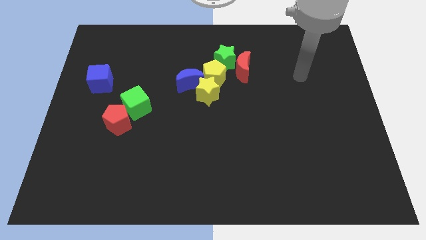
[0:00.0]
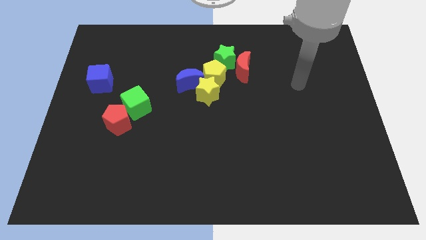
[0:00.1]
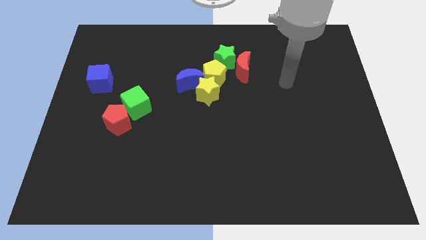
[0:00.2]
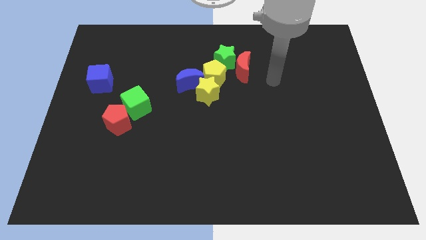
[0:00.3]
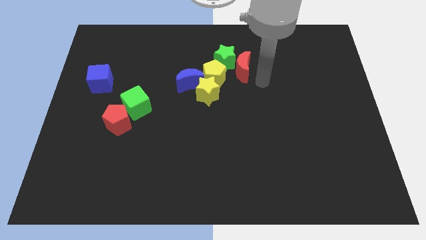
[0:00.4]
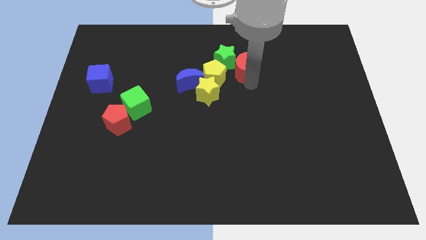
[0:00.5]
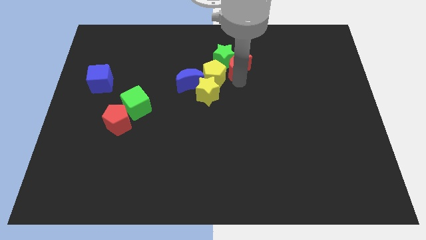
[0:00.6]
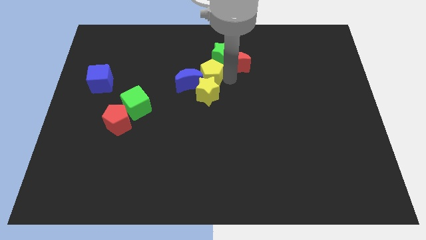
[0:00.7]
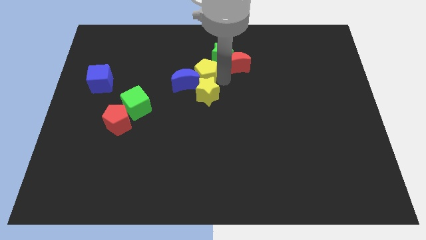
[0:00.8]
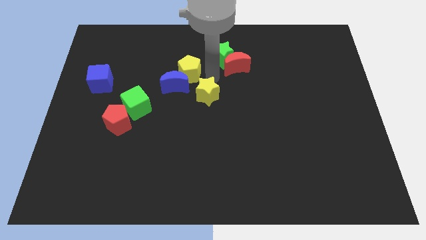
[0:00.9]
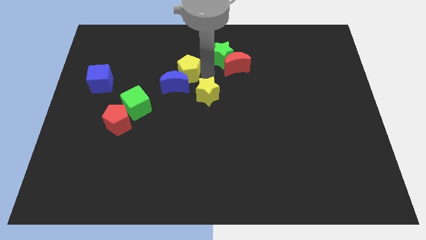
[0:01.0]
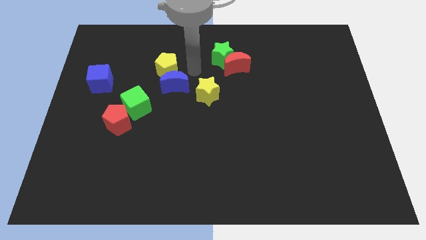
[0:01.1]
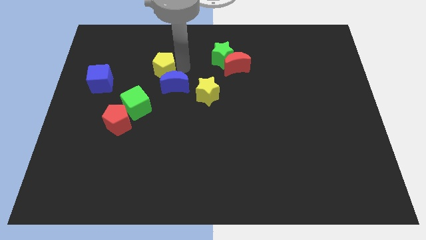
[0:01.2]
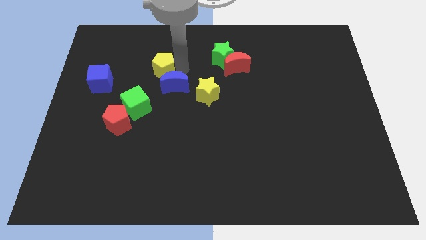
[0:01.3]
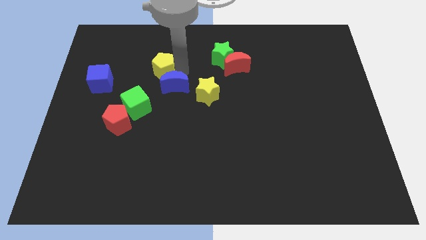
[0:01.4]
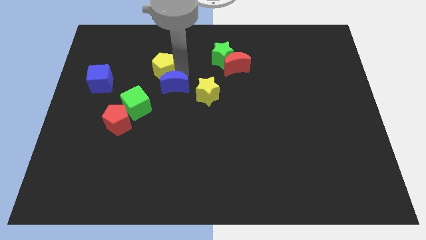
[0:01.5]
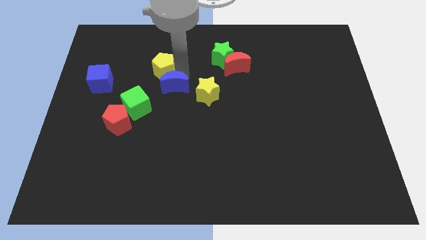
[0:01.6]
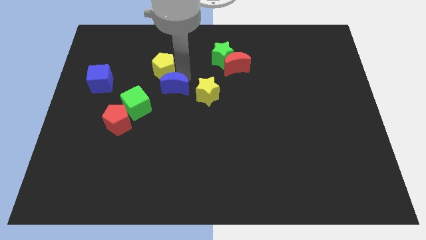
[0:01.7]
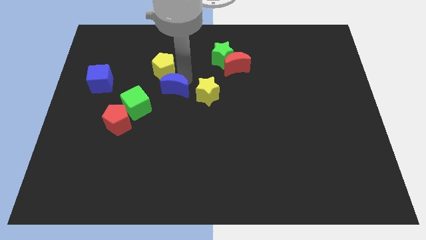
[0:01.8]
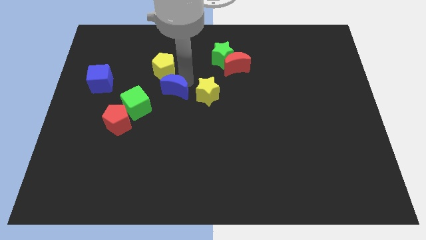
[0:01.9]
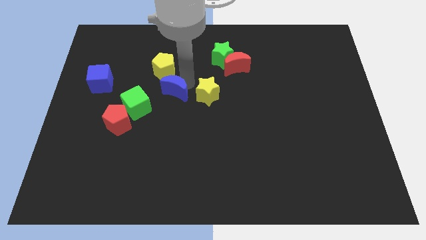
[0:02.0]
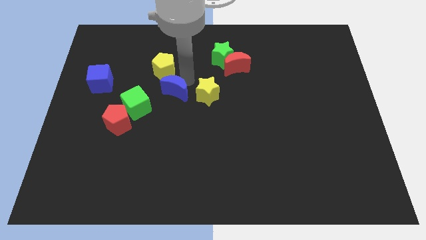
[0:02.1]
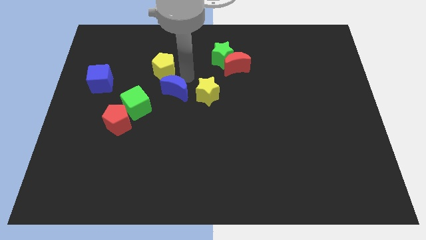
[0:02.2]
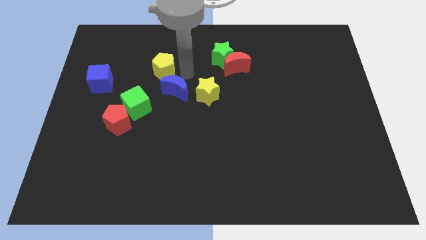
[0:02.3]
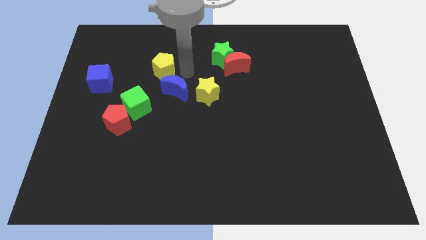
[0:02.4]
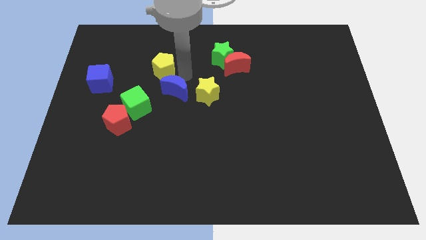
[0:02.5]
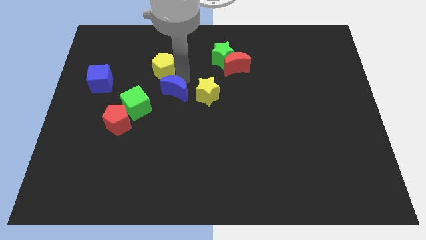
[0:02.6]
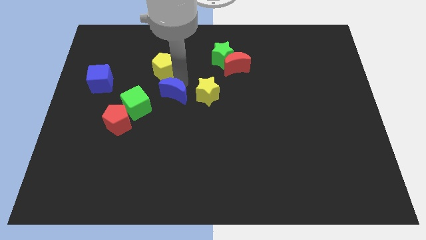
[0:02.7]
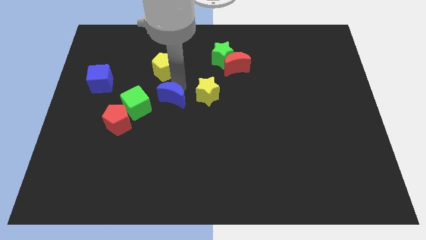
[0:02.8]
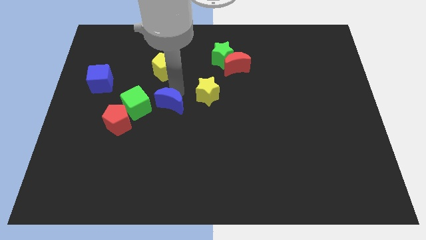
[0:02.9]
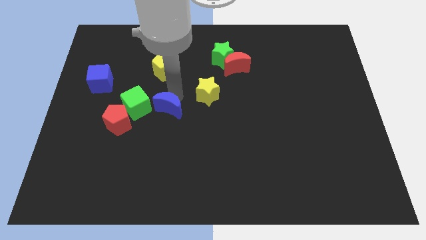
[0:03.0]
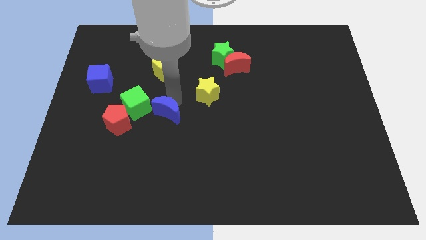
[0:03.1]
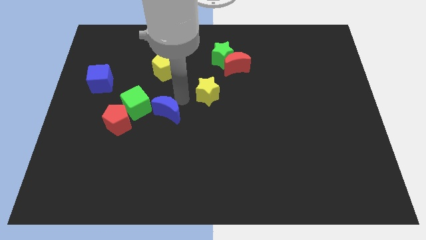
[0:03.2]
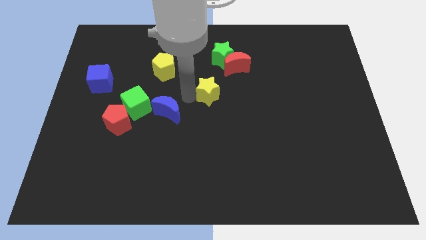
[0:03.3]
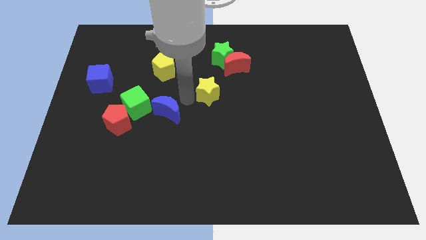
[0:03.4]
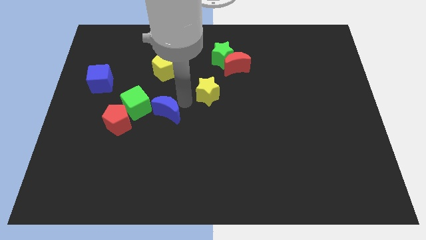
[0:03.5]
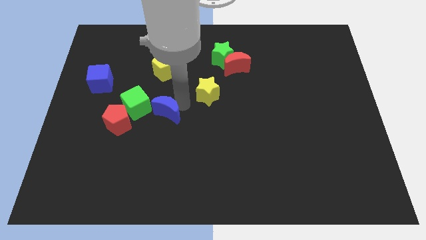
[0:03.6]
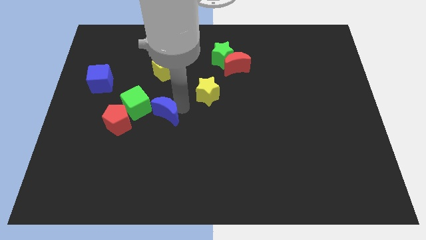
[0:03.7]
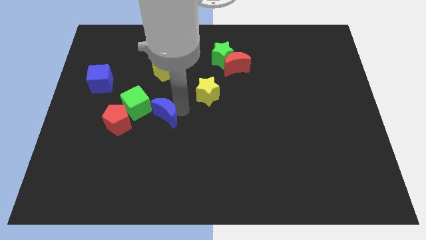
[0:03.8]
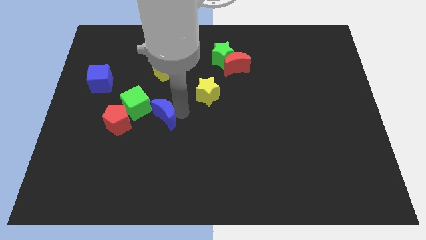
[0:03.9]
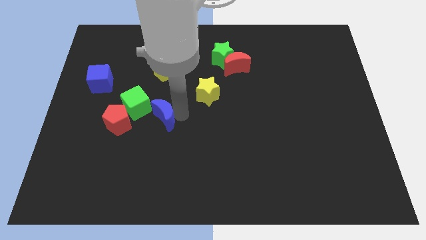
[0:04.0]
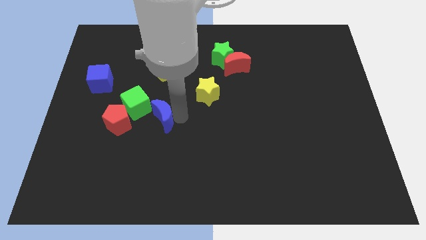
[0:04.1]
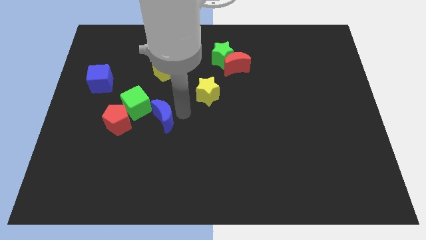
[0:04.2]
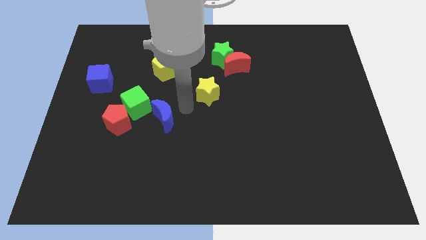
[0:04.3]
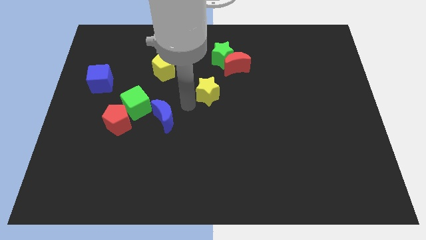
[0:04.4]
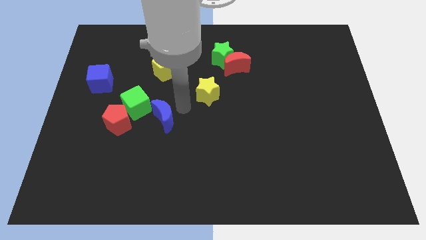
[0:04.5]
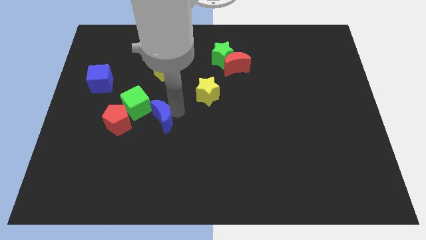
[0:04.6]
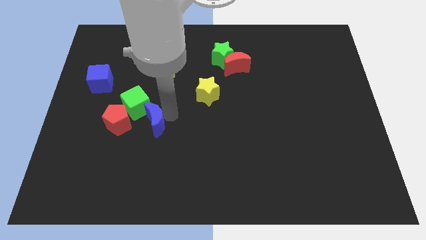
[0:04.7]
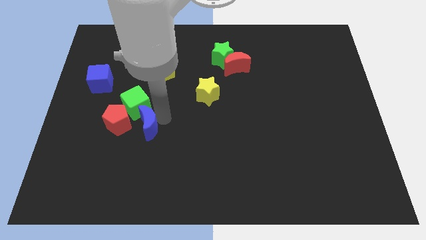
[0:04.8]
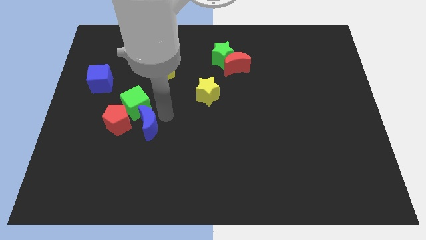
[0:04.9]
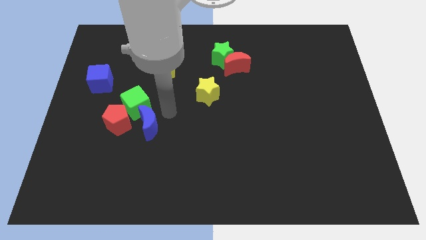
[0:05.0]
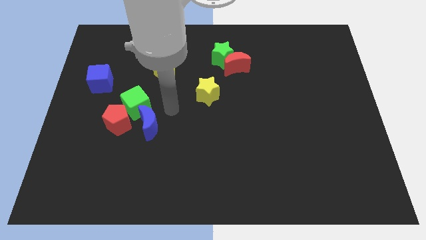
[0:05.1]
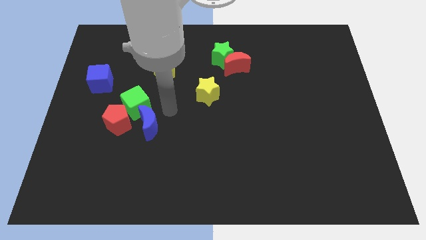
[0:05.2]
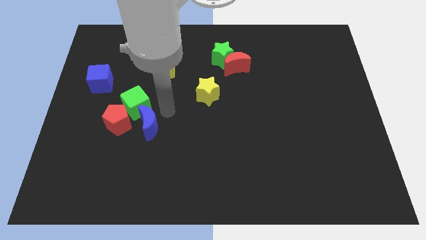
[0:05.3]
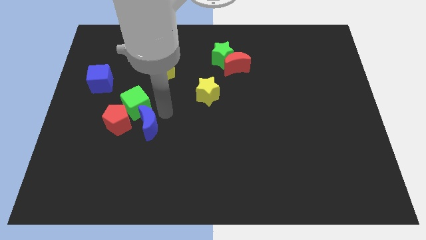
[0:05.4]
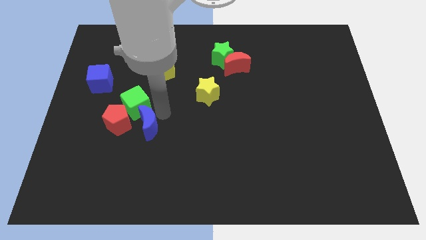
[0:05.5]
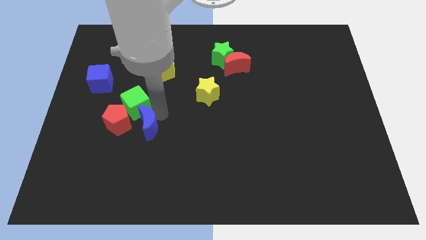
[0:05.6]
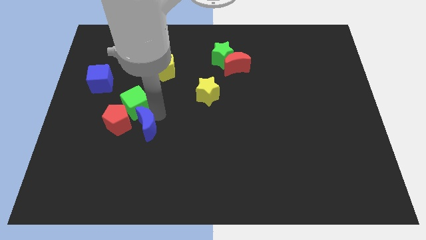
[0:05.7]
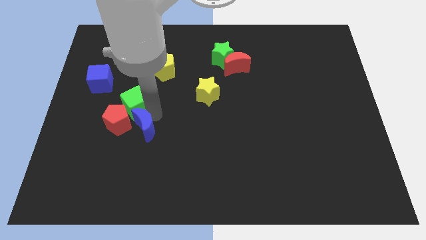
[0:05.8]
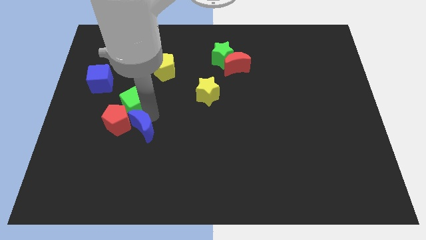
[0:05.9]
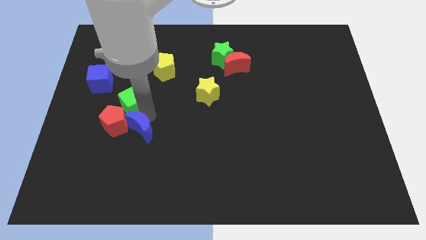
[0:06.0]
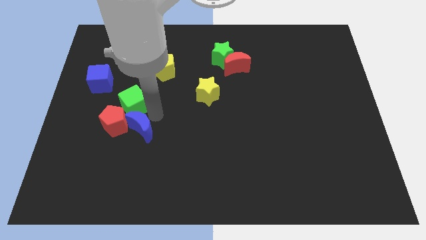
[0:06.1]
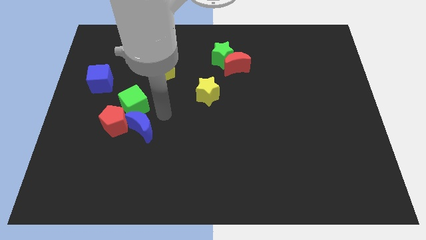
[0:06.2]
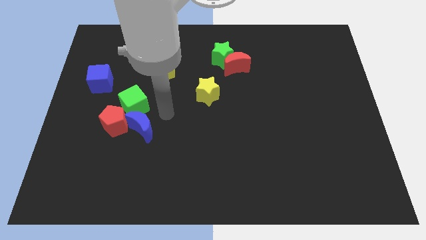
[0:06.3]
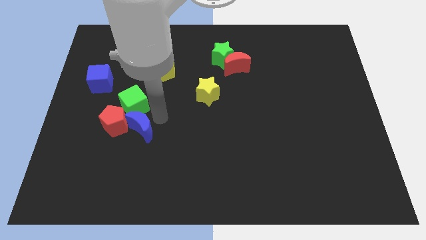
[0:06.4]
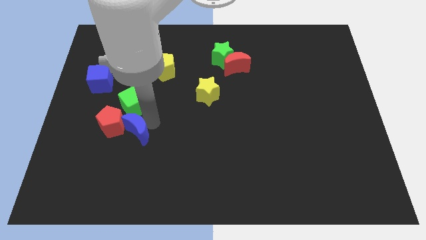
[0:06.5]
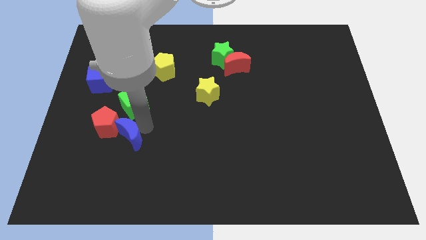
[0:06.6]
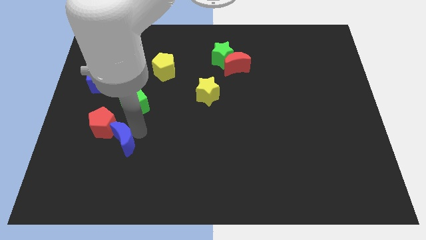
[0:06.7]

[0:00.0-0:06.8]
push the blue moon down and left

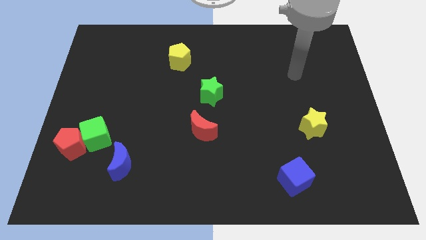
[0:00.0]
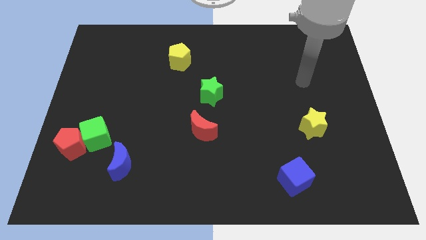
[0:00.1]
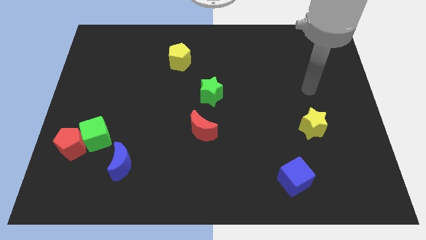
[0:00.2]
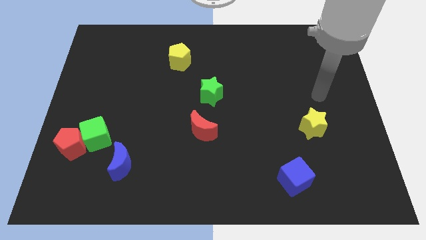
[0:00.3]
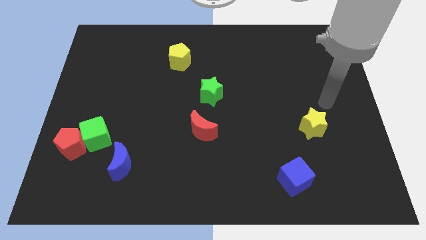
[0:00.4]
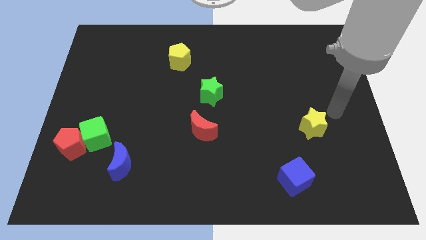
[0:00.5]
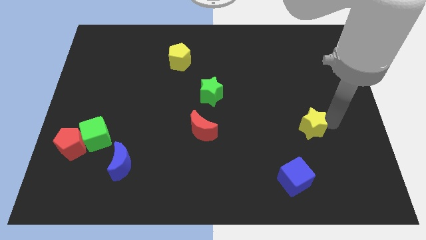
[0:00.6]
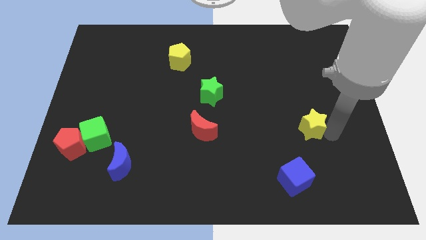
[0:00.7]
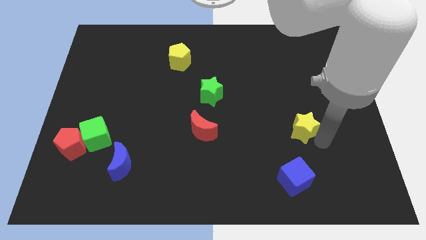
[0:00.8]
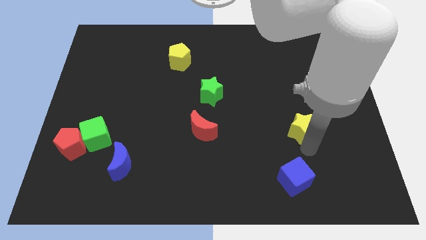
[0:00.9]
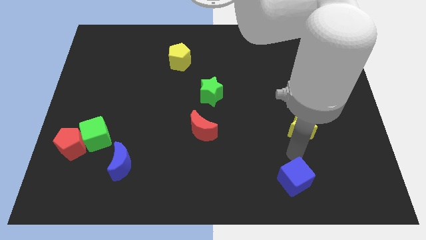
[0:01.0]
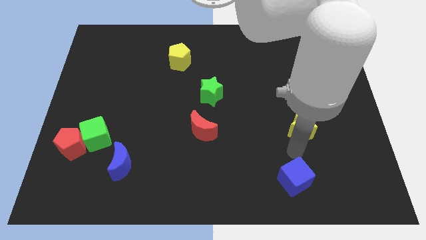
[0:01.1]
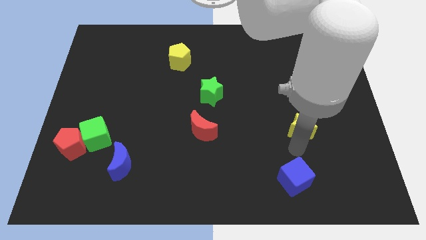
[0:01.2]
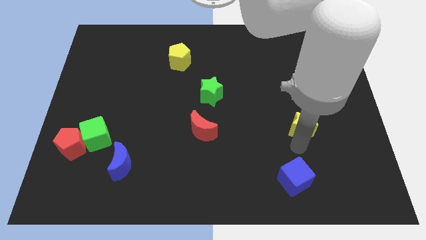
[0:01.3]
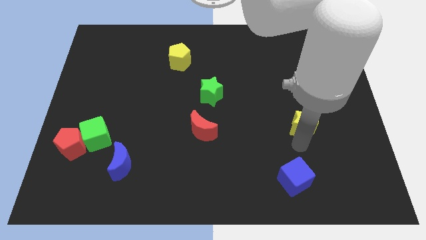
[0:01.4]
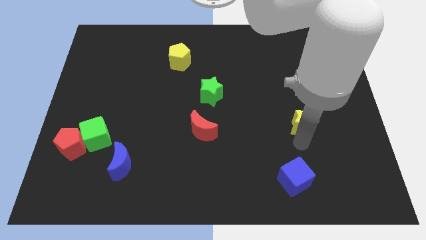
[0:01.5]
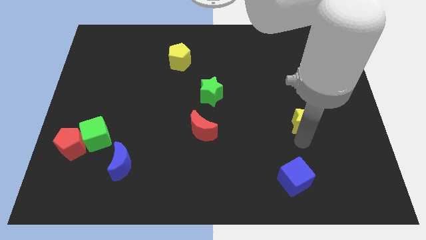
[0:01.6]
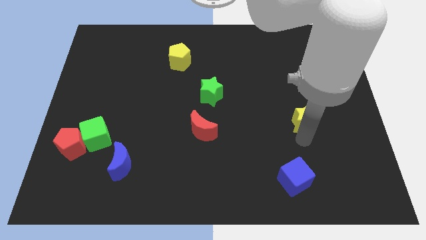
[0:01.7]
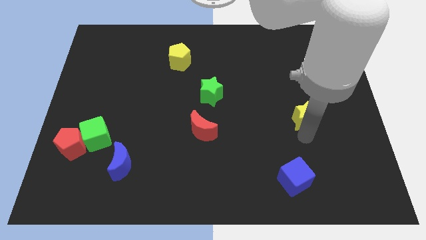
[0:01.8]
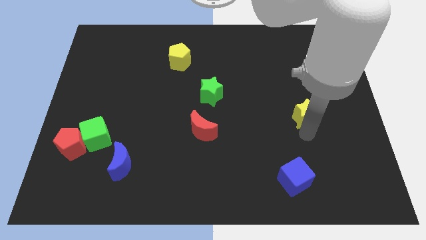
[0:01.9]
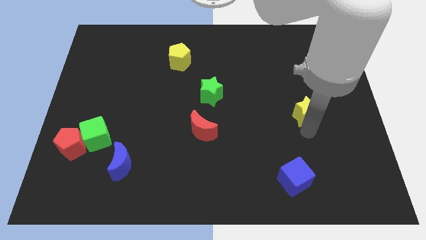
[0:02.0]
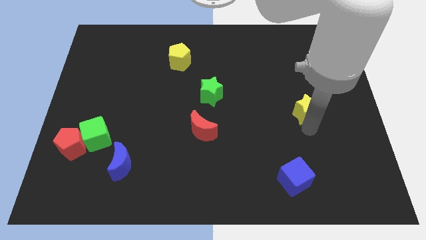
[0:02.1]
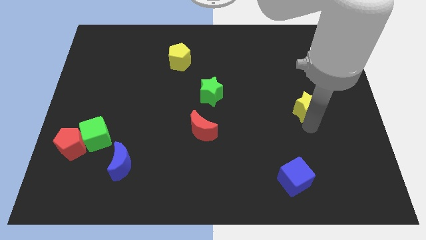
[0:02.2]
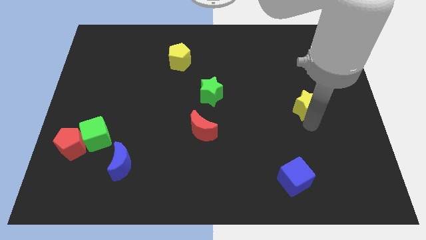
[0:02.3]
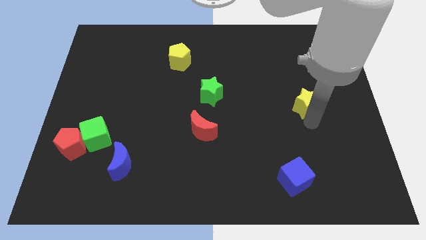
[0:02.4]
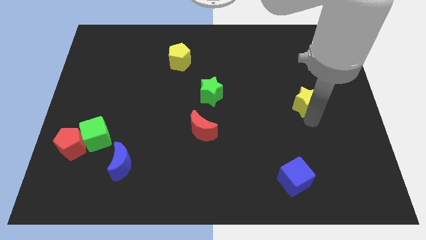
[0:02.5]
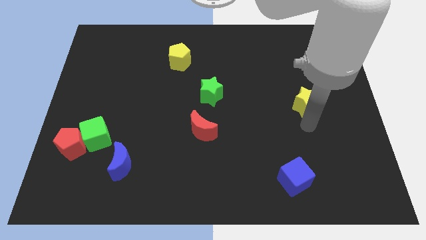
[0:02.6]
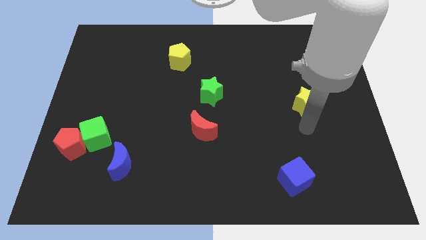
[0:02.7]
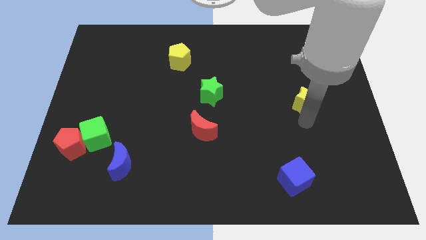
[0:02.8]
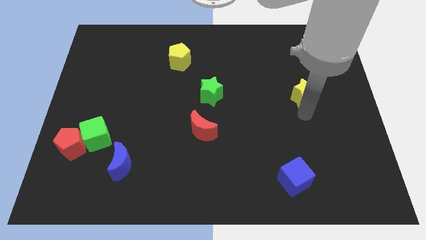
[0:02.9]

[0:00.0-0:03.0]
slightly push the yellow star up
